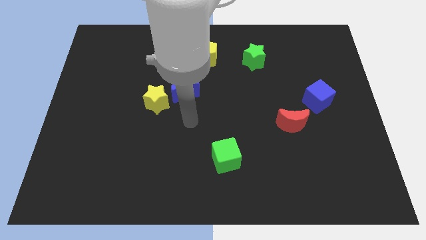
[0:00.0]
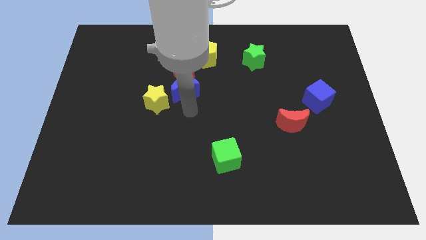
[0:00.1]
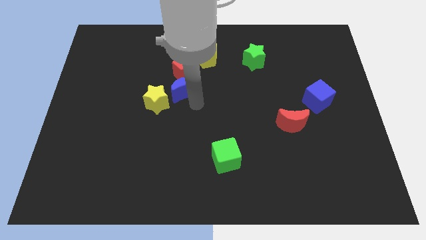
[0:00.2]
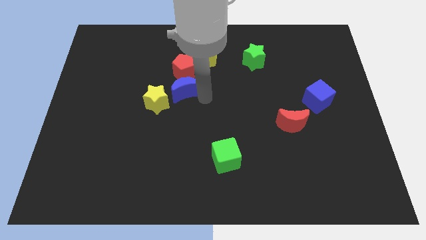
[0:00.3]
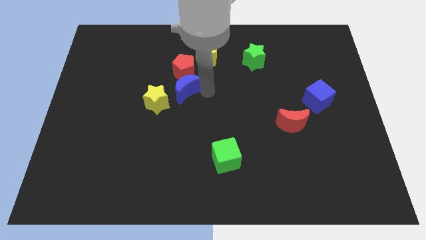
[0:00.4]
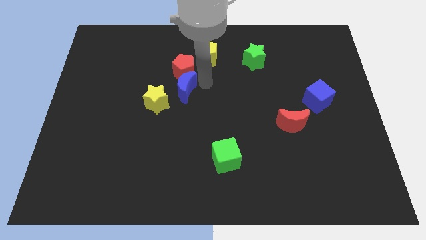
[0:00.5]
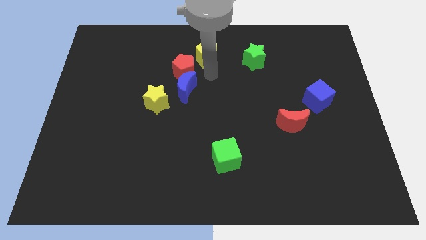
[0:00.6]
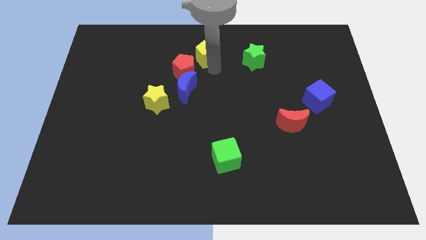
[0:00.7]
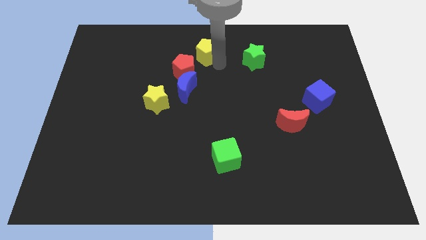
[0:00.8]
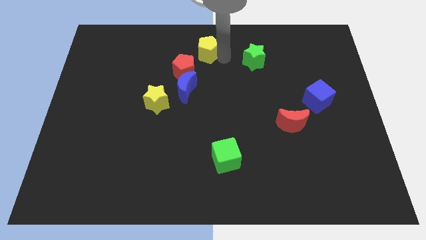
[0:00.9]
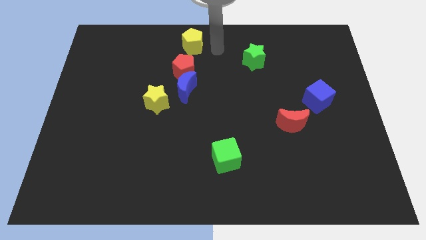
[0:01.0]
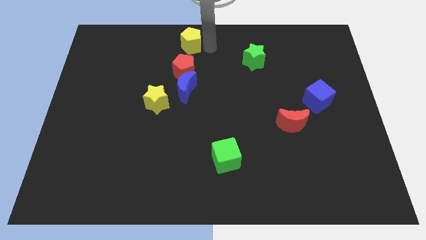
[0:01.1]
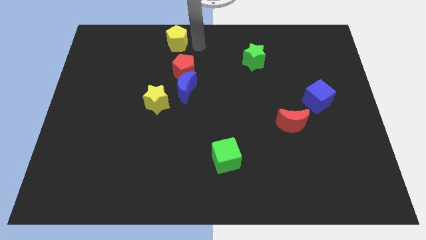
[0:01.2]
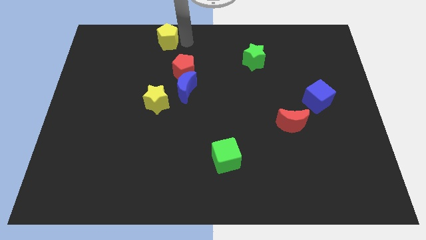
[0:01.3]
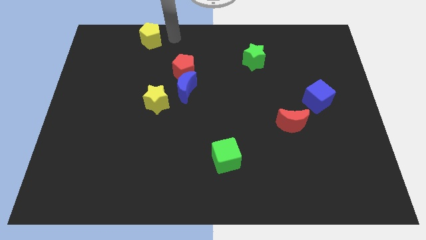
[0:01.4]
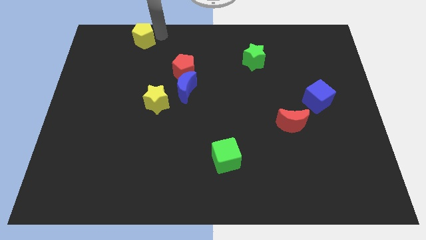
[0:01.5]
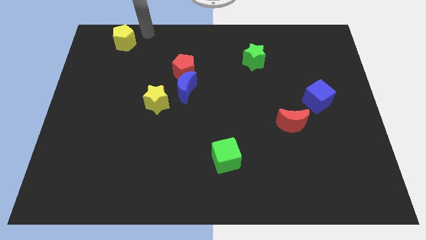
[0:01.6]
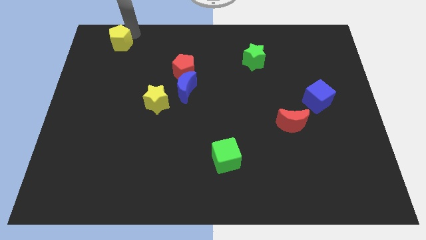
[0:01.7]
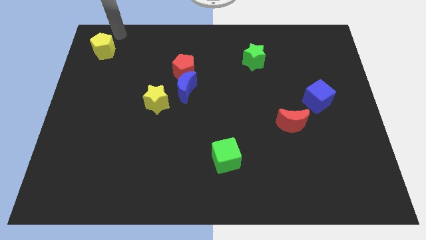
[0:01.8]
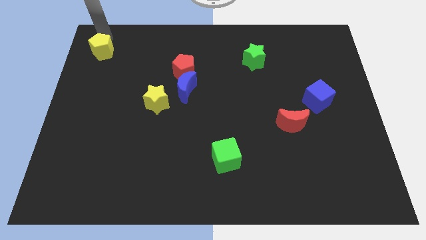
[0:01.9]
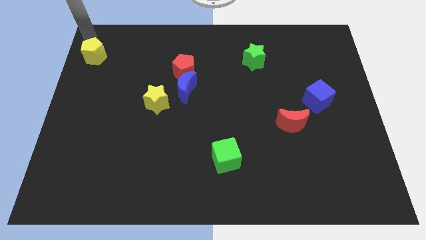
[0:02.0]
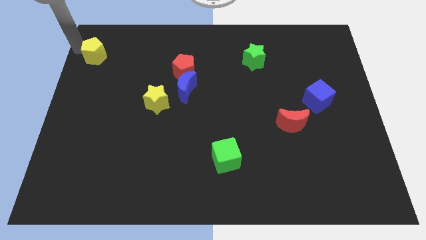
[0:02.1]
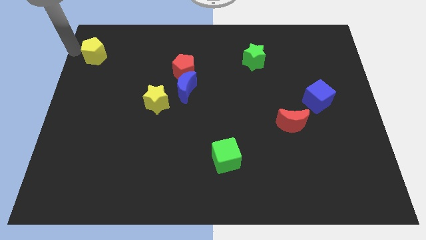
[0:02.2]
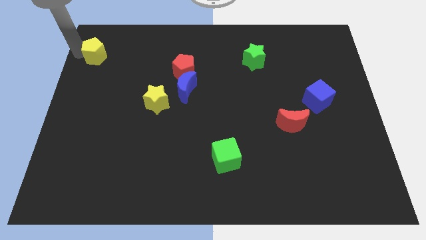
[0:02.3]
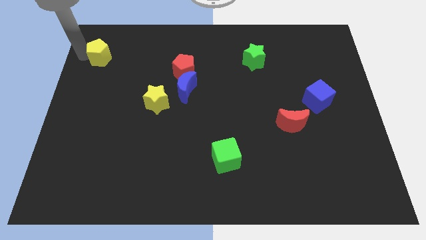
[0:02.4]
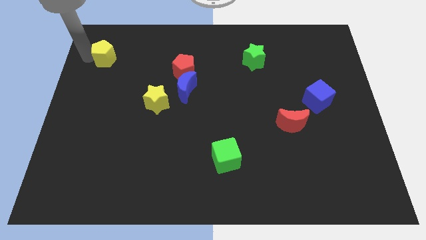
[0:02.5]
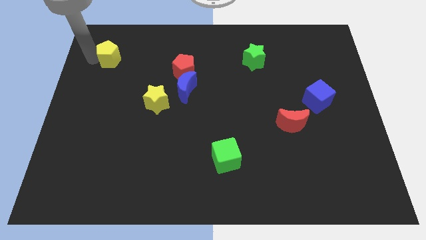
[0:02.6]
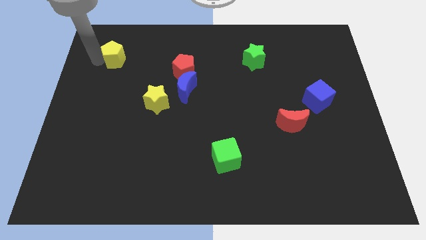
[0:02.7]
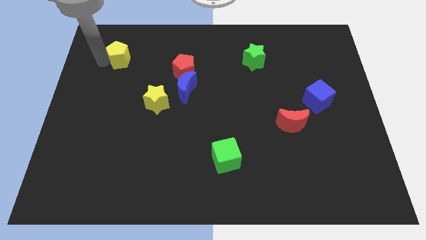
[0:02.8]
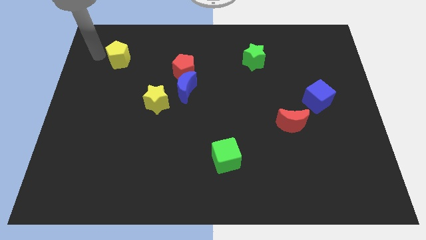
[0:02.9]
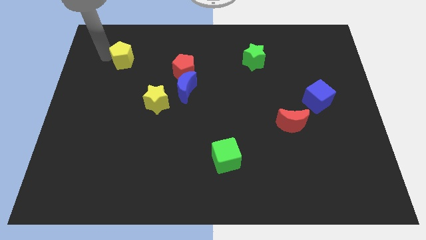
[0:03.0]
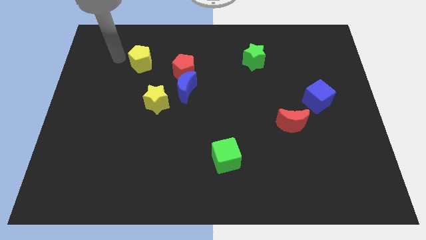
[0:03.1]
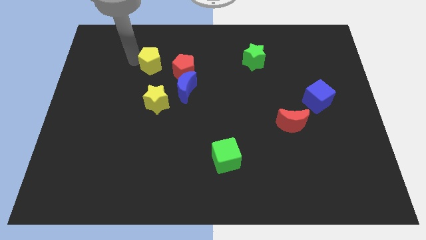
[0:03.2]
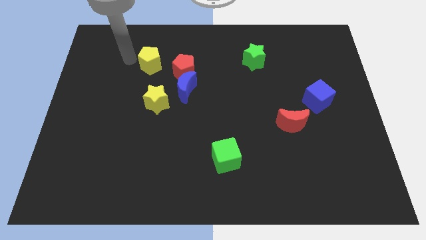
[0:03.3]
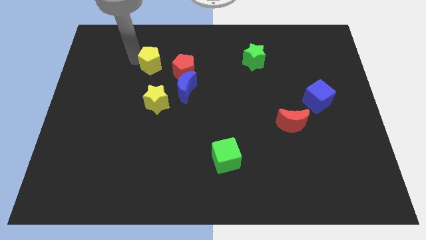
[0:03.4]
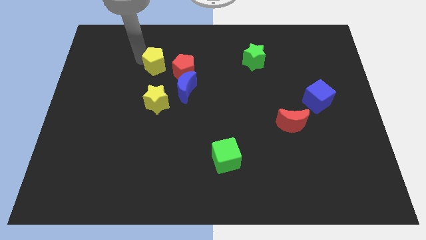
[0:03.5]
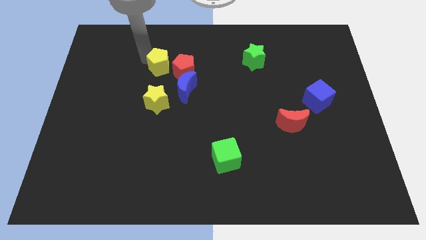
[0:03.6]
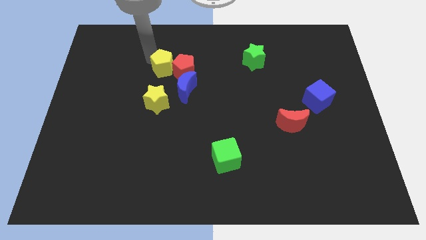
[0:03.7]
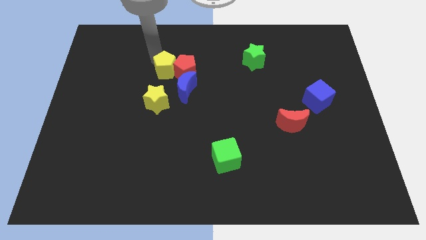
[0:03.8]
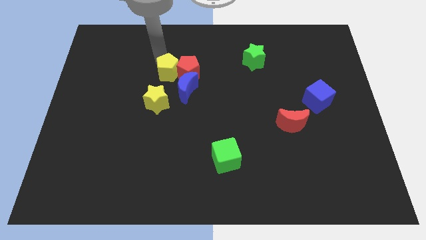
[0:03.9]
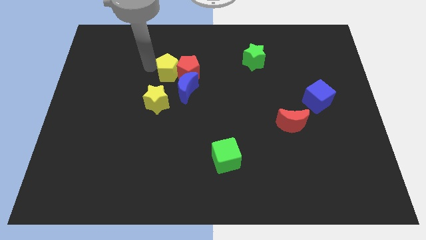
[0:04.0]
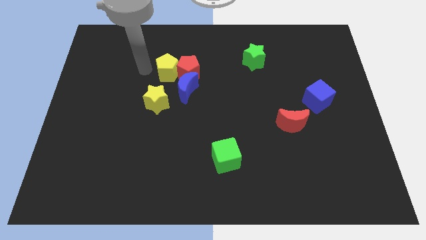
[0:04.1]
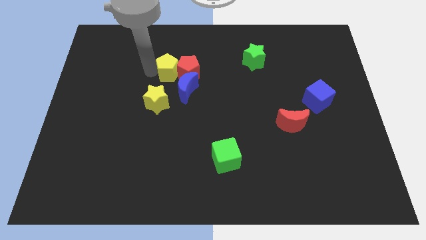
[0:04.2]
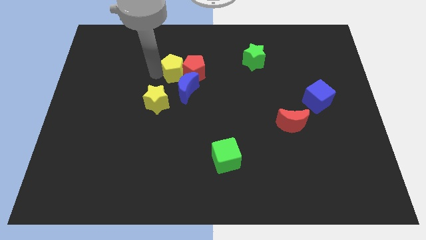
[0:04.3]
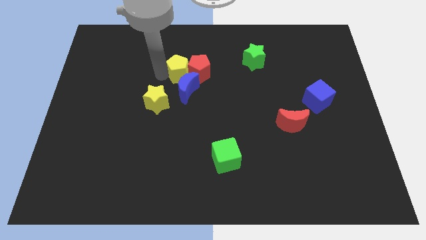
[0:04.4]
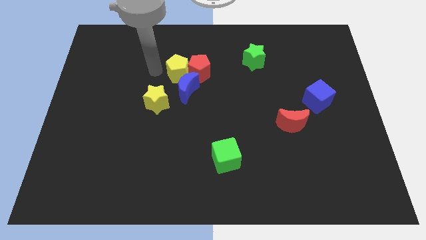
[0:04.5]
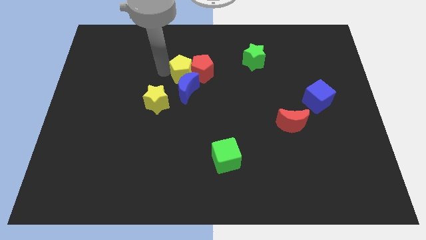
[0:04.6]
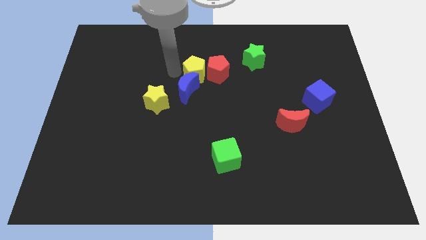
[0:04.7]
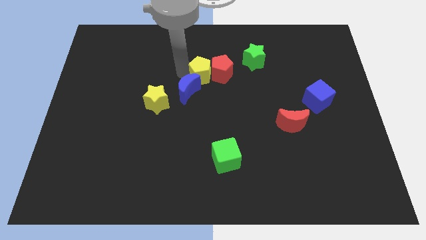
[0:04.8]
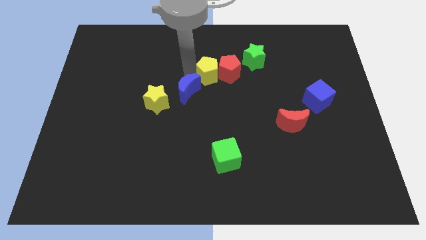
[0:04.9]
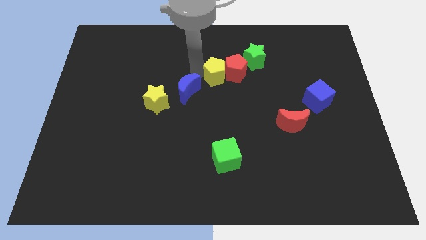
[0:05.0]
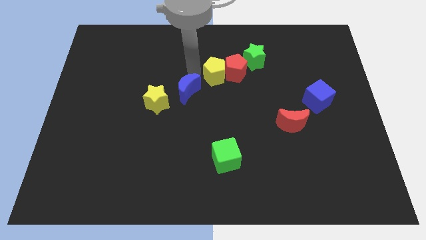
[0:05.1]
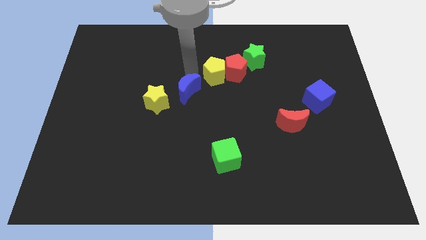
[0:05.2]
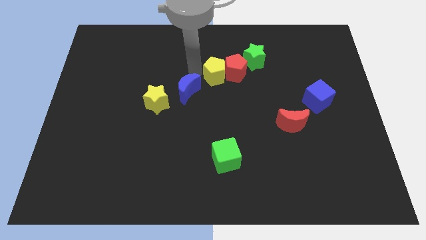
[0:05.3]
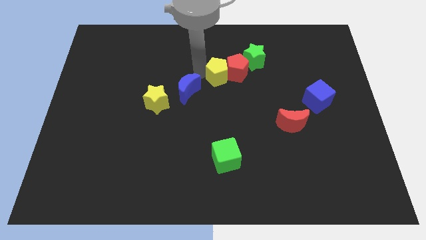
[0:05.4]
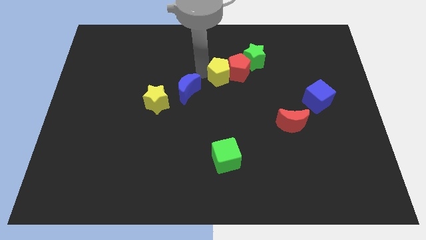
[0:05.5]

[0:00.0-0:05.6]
slide the yellow pentagon downwards and right a little bit

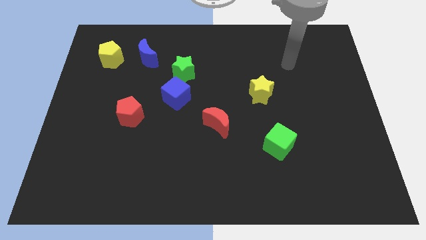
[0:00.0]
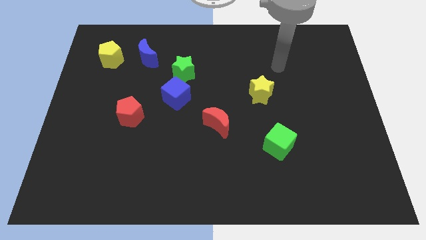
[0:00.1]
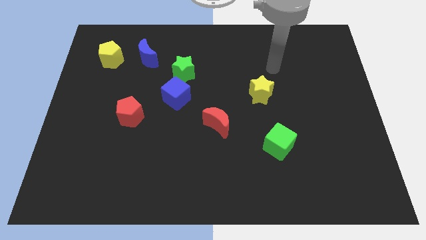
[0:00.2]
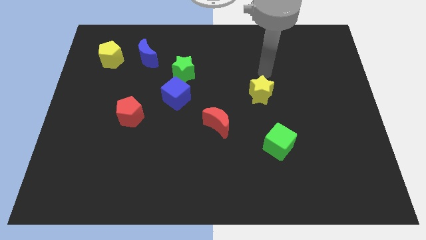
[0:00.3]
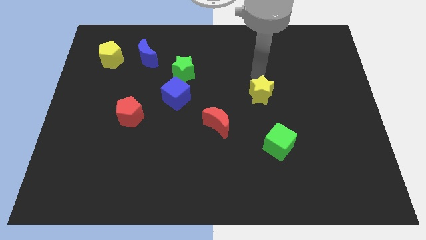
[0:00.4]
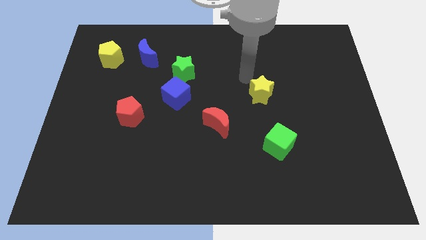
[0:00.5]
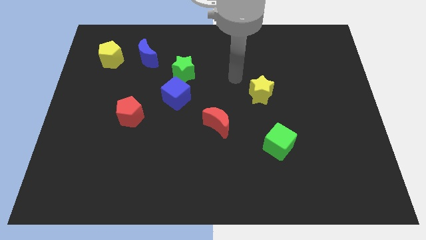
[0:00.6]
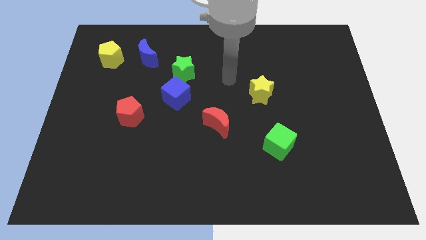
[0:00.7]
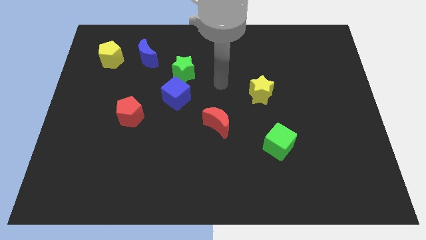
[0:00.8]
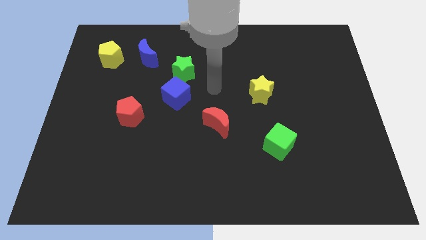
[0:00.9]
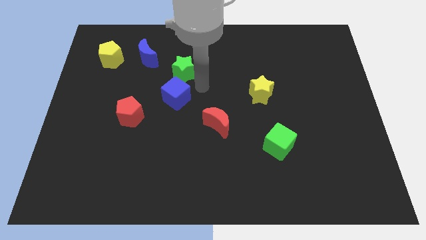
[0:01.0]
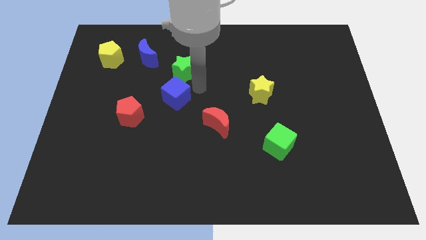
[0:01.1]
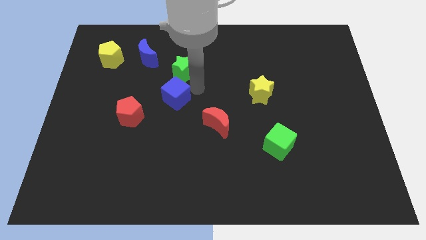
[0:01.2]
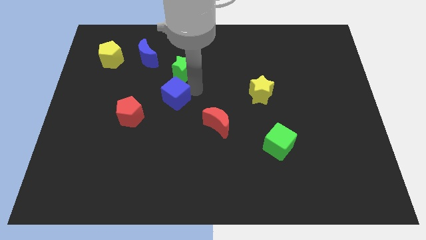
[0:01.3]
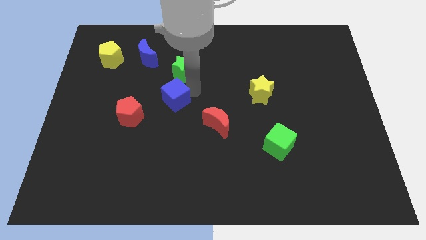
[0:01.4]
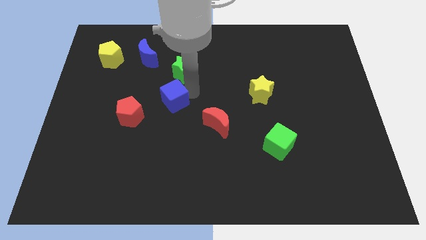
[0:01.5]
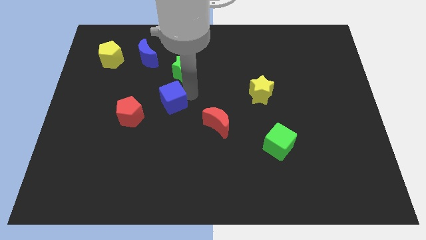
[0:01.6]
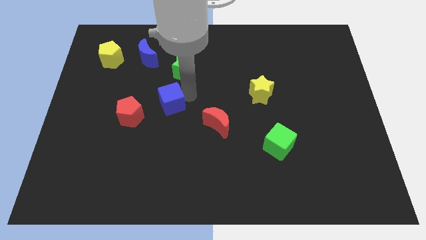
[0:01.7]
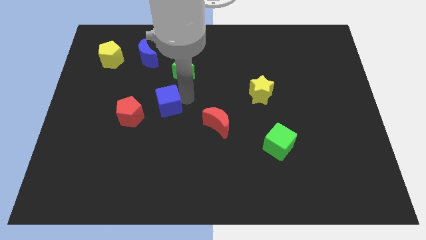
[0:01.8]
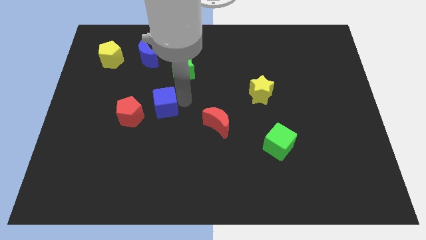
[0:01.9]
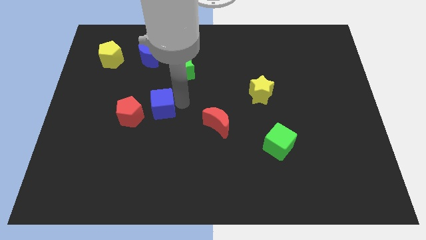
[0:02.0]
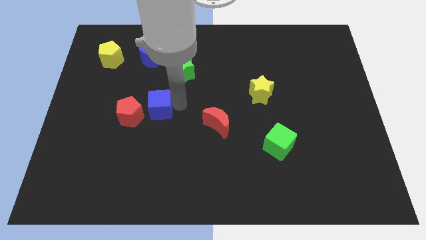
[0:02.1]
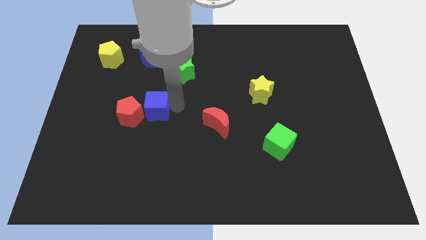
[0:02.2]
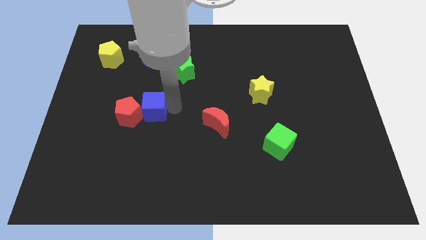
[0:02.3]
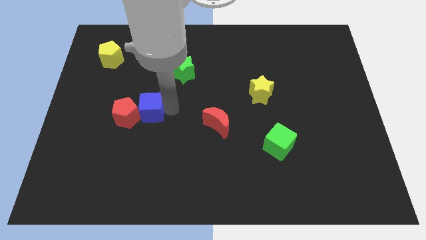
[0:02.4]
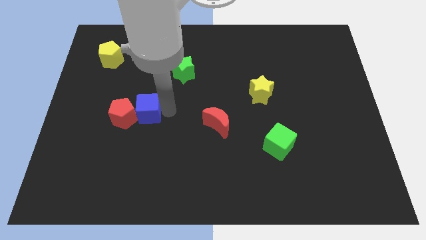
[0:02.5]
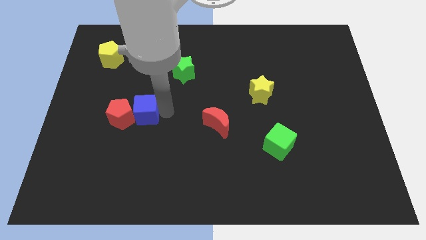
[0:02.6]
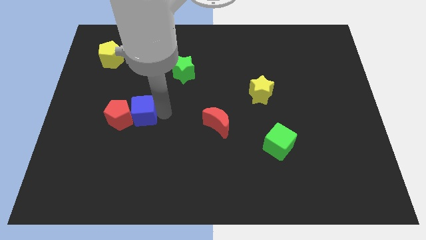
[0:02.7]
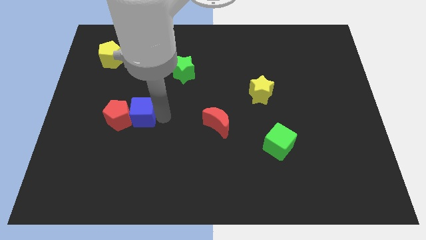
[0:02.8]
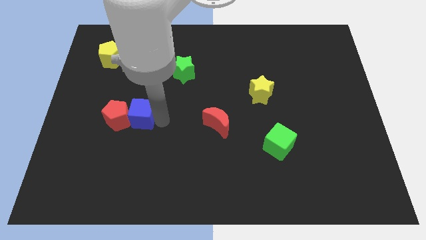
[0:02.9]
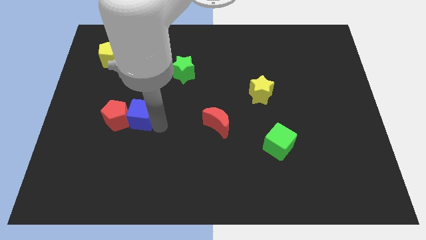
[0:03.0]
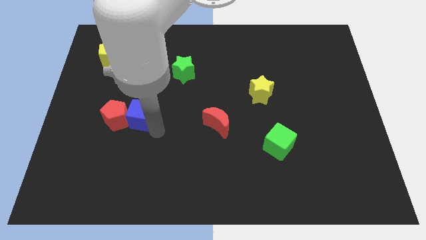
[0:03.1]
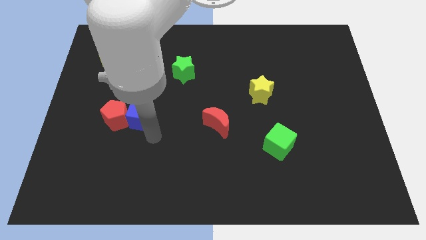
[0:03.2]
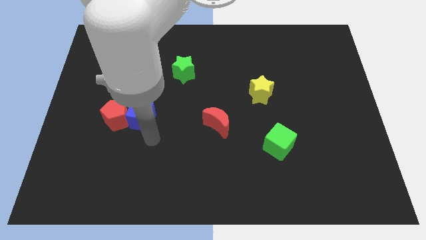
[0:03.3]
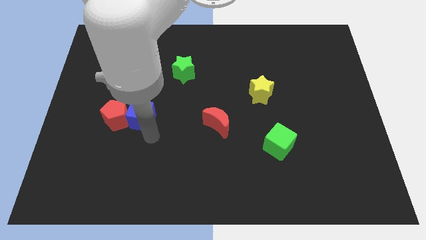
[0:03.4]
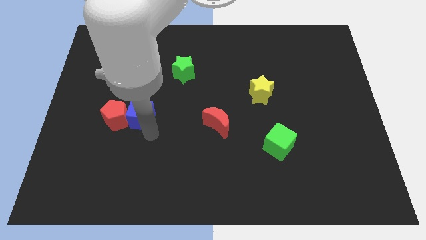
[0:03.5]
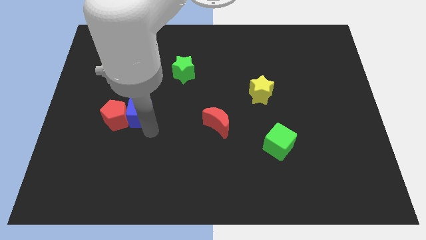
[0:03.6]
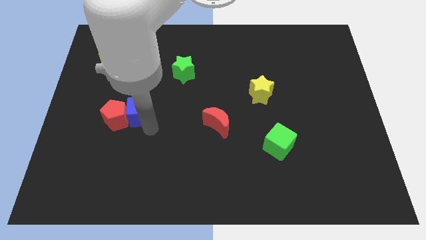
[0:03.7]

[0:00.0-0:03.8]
push the blue cube slightly left

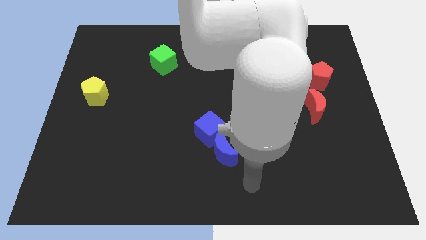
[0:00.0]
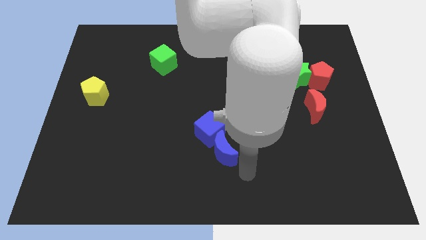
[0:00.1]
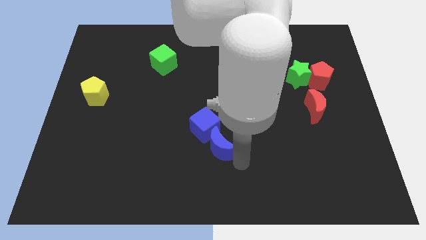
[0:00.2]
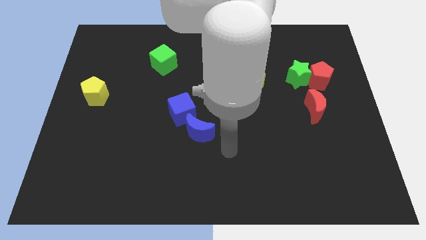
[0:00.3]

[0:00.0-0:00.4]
slide the blue cube up and left a little bit
